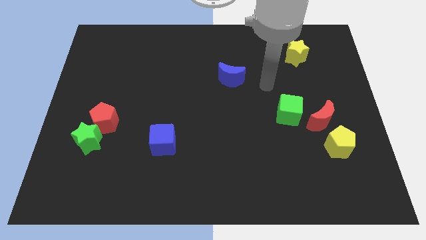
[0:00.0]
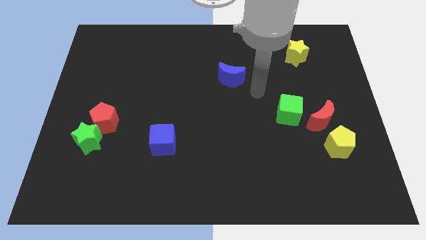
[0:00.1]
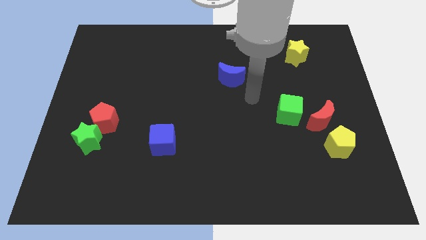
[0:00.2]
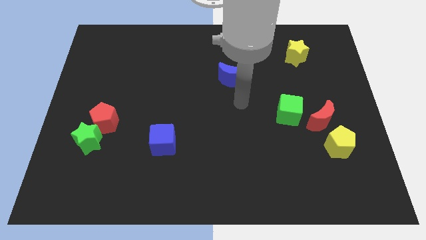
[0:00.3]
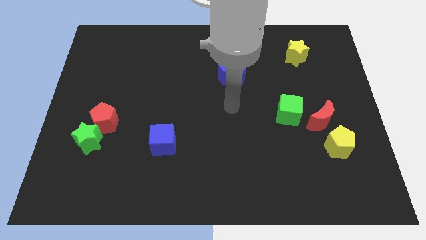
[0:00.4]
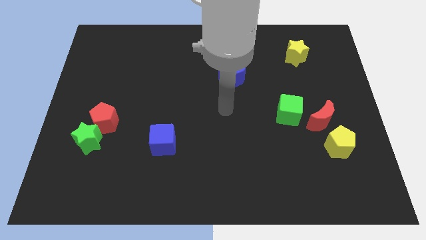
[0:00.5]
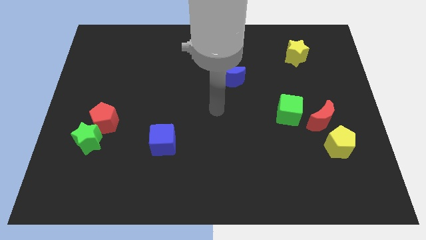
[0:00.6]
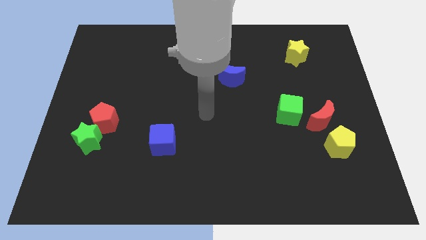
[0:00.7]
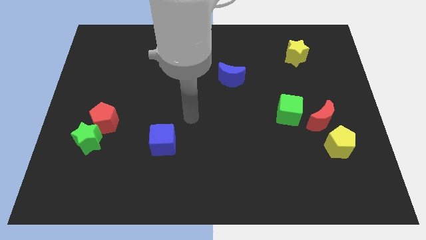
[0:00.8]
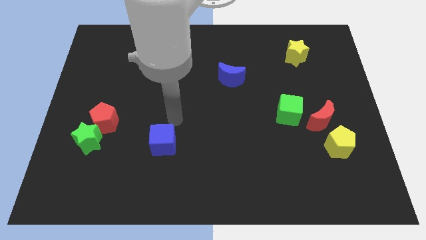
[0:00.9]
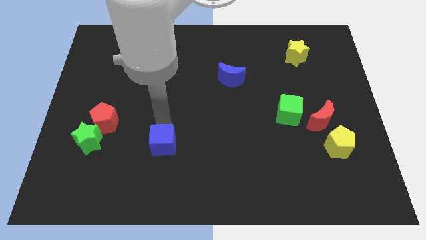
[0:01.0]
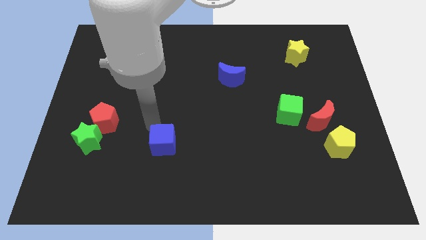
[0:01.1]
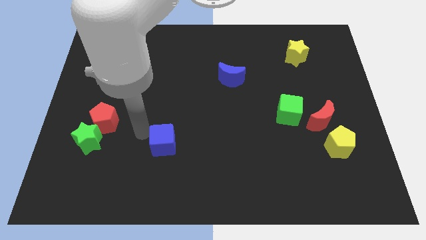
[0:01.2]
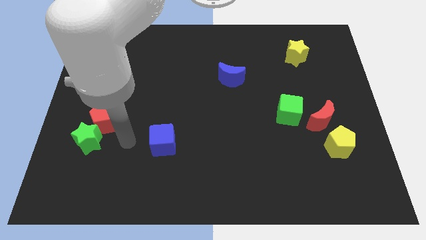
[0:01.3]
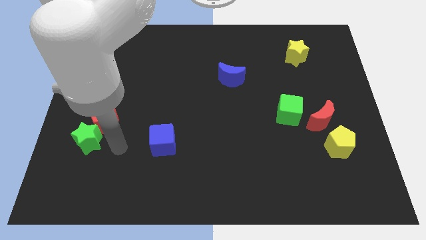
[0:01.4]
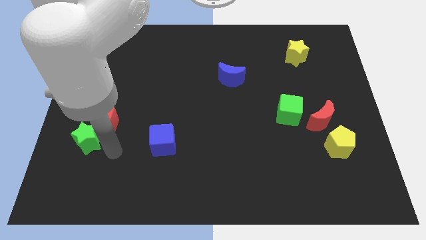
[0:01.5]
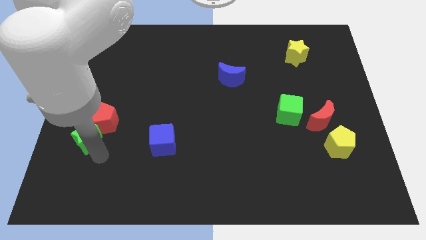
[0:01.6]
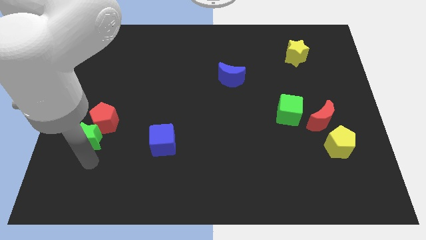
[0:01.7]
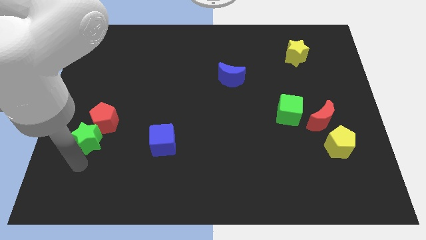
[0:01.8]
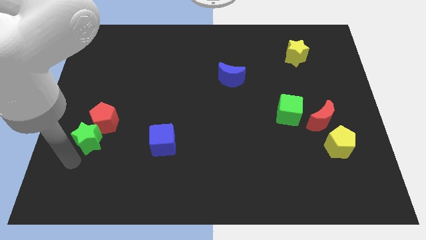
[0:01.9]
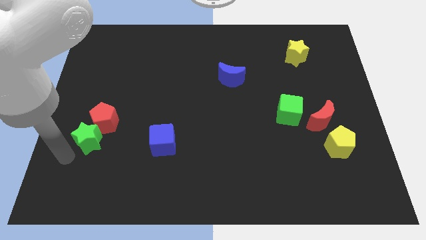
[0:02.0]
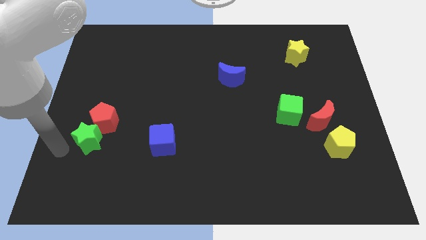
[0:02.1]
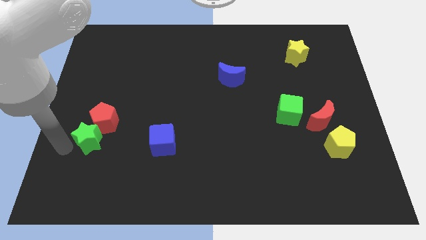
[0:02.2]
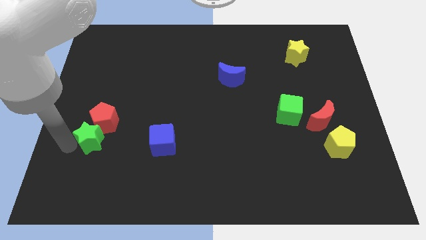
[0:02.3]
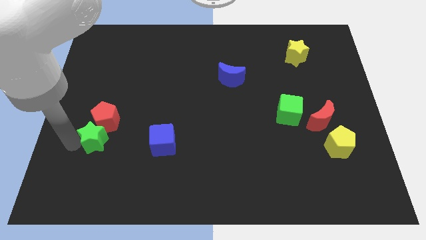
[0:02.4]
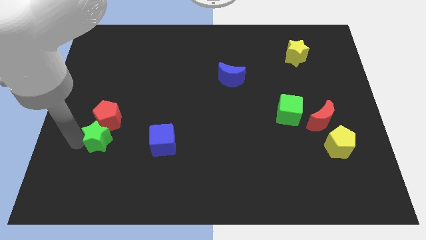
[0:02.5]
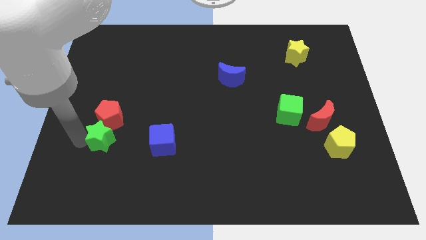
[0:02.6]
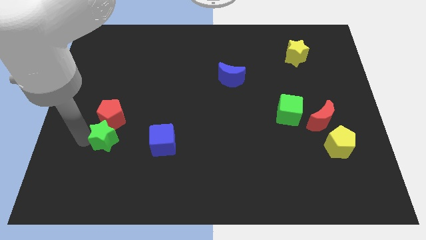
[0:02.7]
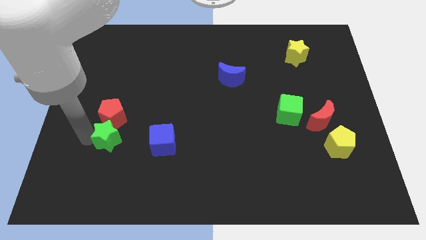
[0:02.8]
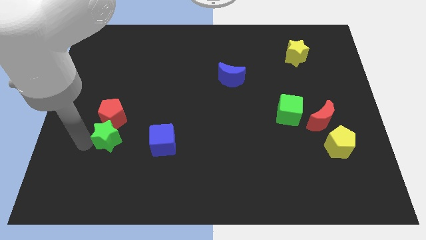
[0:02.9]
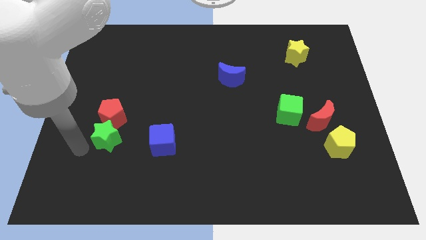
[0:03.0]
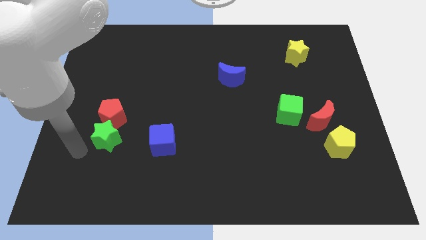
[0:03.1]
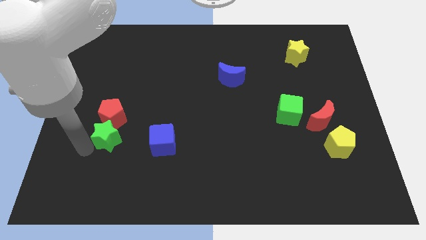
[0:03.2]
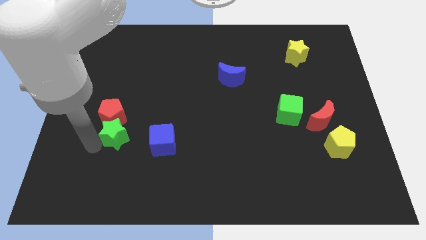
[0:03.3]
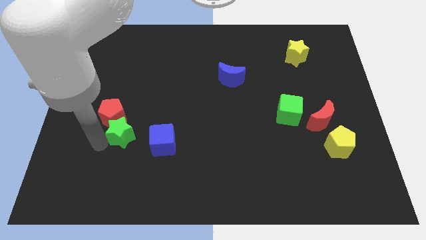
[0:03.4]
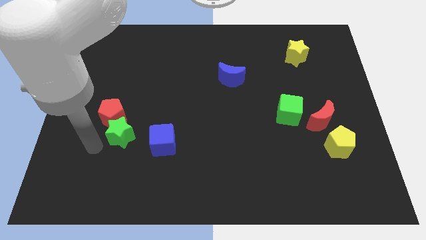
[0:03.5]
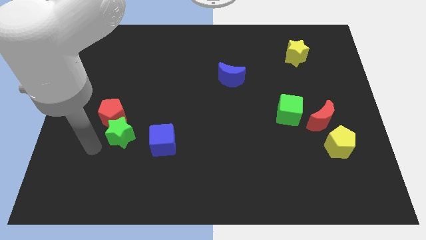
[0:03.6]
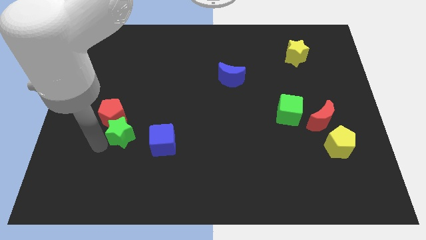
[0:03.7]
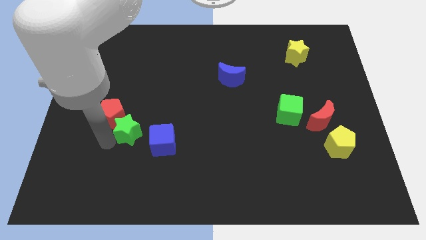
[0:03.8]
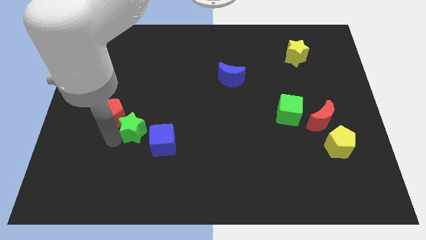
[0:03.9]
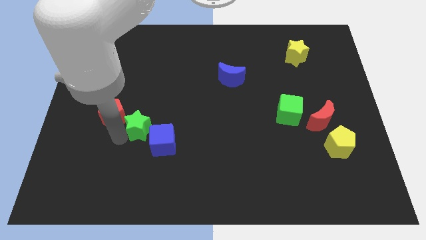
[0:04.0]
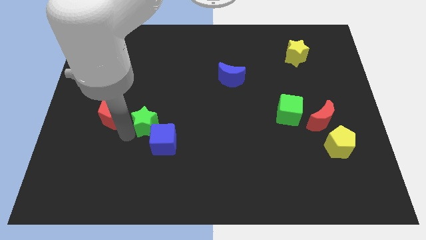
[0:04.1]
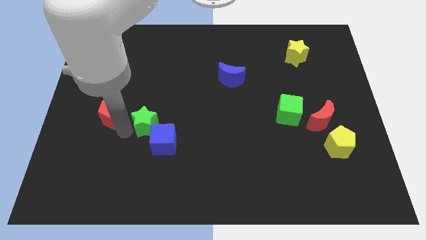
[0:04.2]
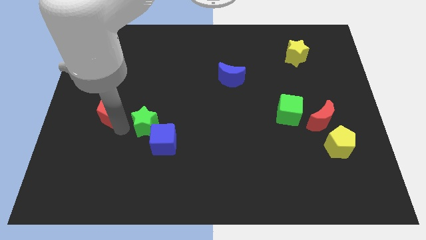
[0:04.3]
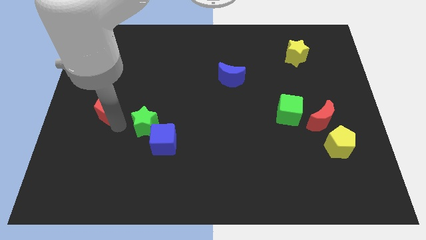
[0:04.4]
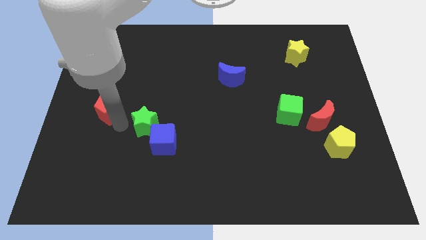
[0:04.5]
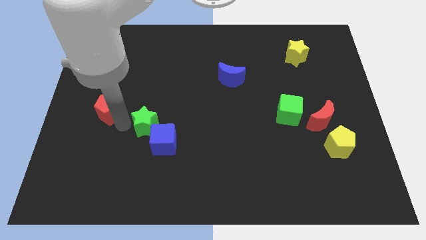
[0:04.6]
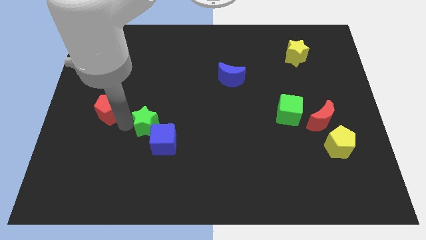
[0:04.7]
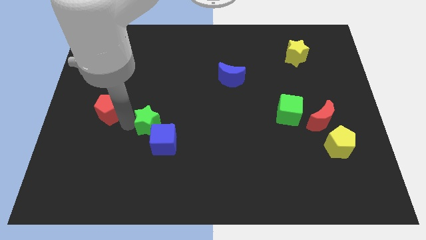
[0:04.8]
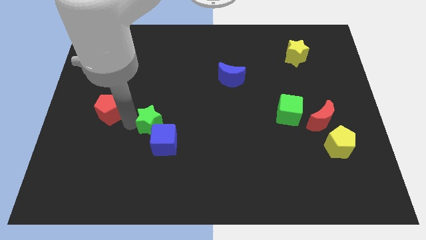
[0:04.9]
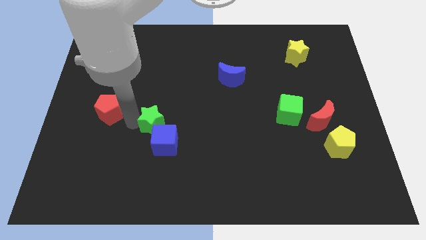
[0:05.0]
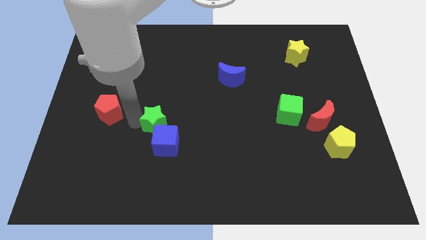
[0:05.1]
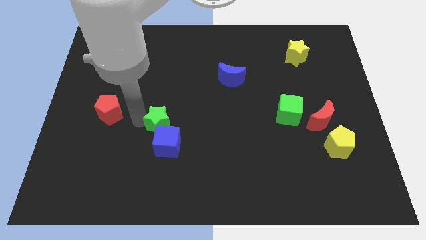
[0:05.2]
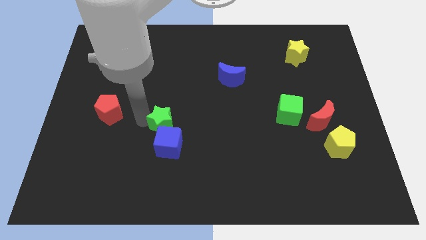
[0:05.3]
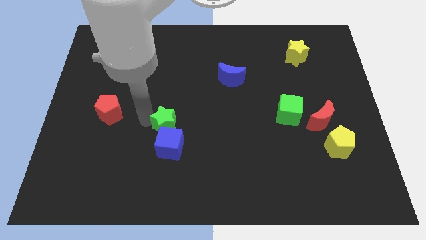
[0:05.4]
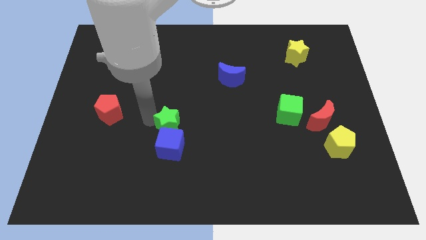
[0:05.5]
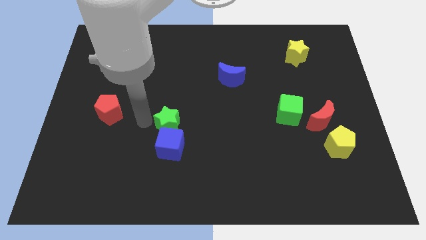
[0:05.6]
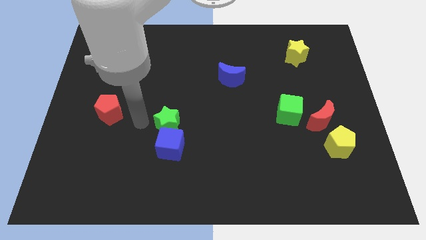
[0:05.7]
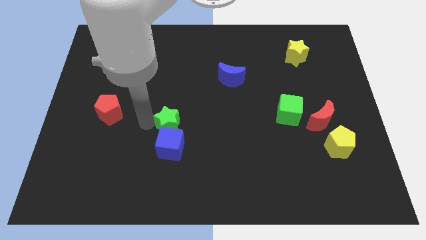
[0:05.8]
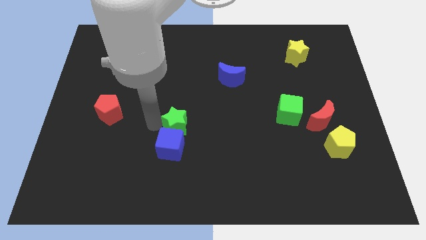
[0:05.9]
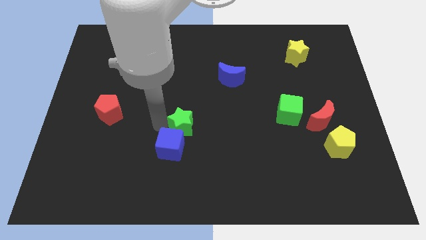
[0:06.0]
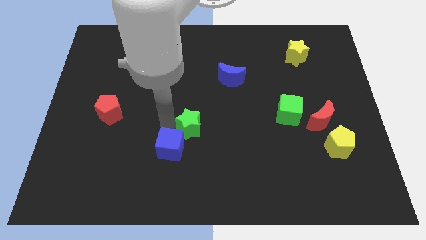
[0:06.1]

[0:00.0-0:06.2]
slide the green star to the right

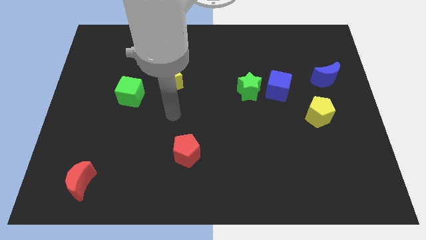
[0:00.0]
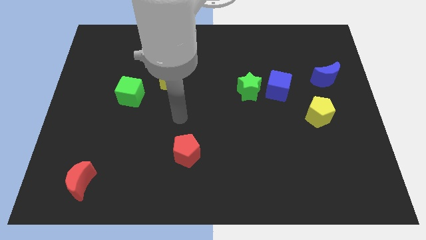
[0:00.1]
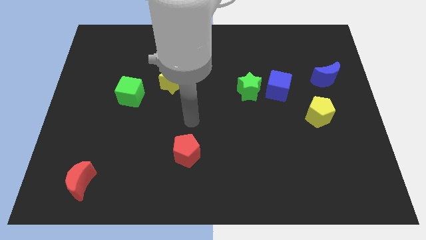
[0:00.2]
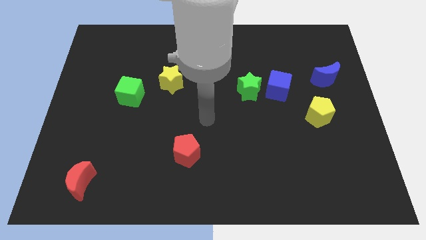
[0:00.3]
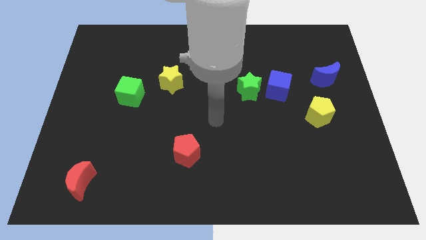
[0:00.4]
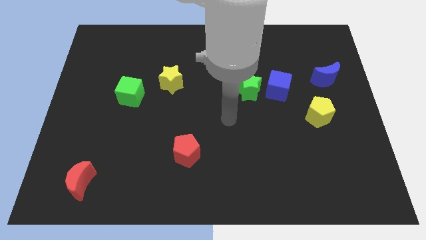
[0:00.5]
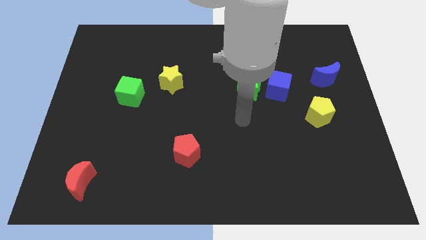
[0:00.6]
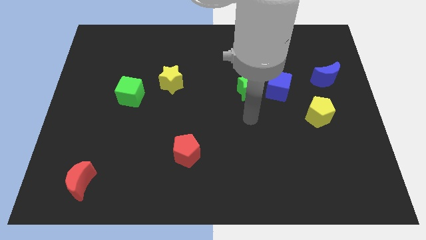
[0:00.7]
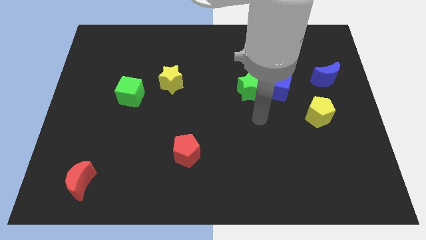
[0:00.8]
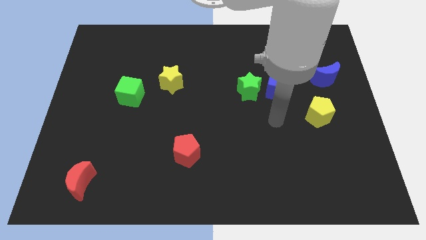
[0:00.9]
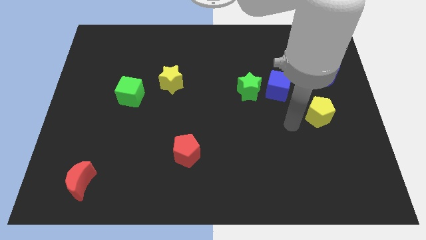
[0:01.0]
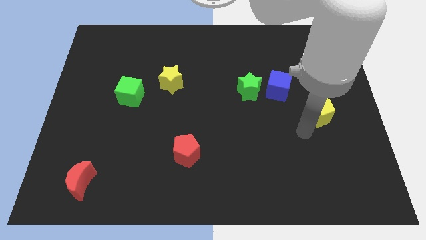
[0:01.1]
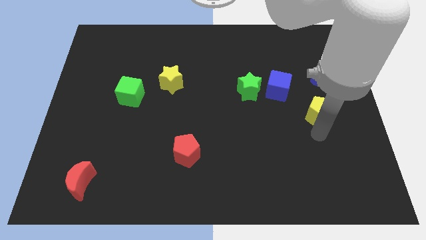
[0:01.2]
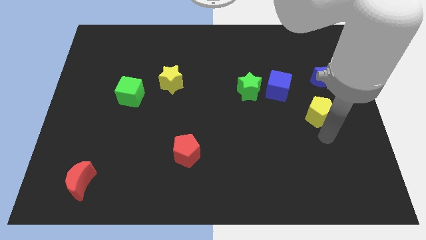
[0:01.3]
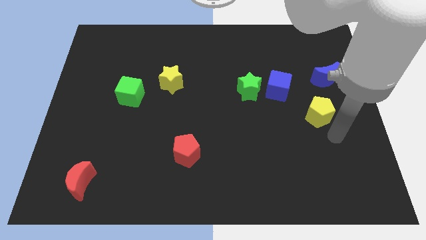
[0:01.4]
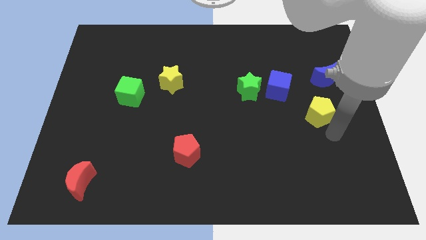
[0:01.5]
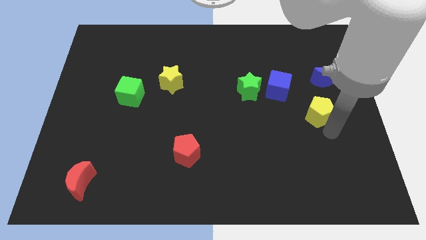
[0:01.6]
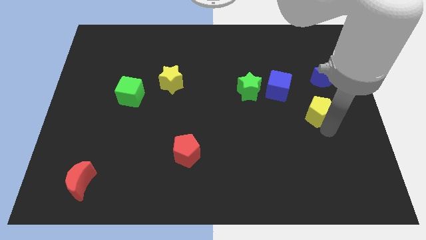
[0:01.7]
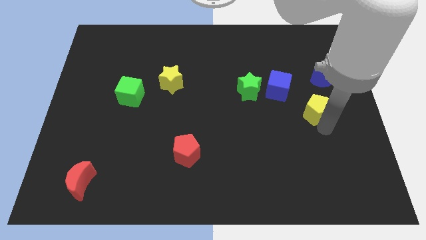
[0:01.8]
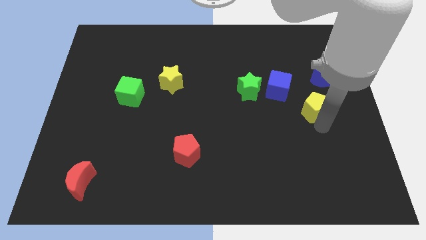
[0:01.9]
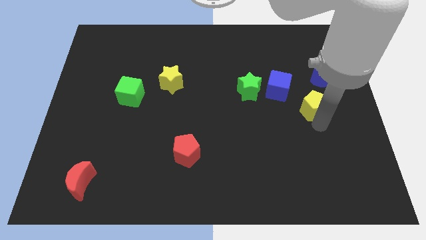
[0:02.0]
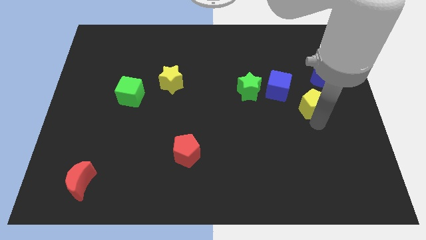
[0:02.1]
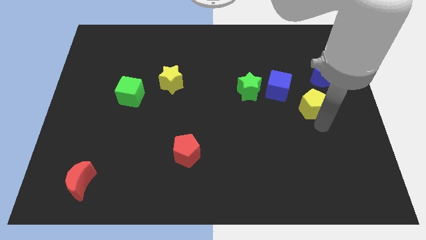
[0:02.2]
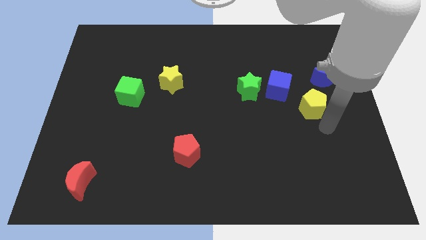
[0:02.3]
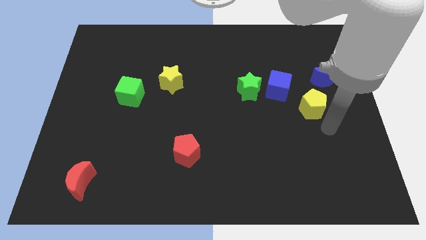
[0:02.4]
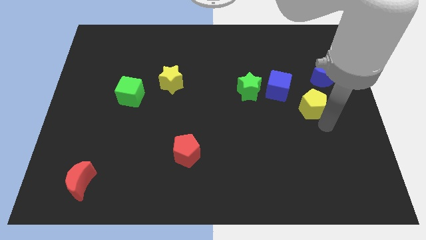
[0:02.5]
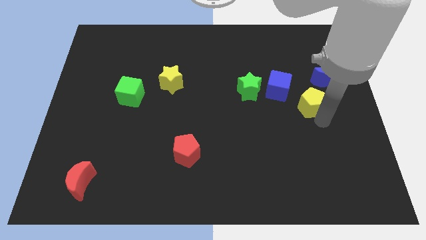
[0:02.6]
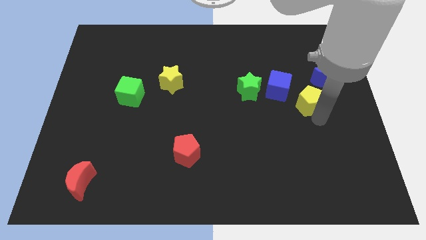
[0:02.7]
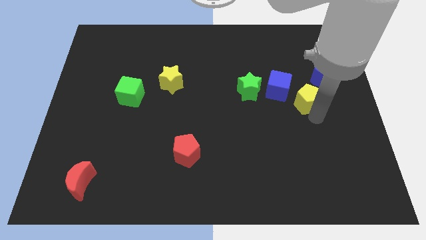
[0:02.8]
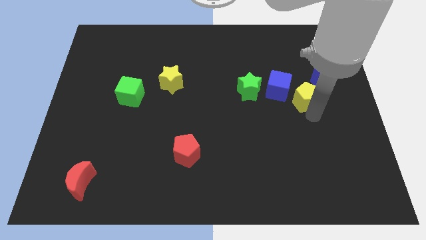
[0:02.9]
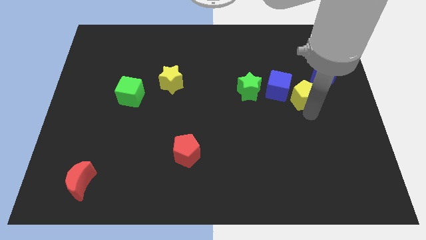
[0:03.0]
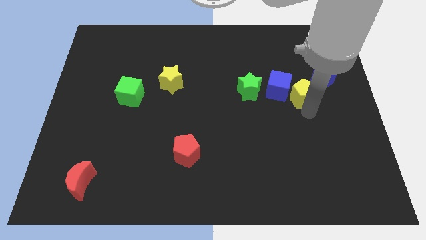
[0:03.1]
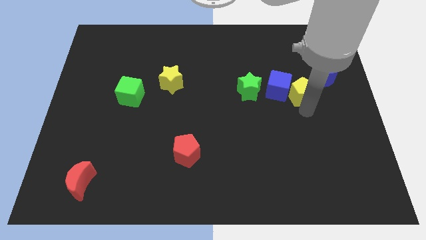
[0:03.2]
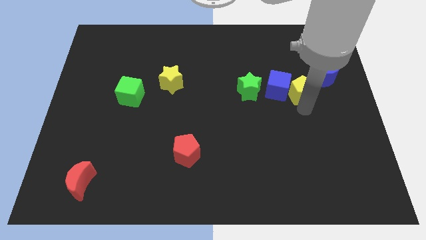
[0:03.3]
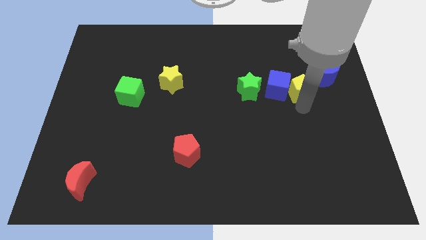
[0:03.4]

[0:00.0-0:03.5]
slightly slide the yellow pentagon up and left
